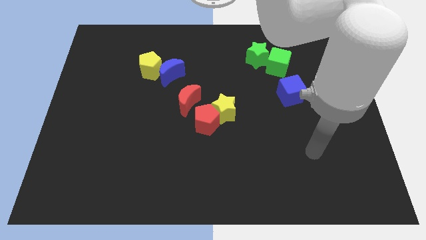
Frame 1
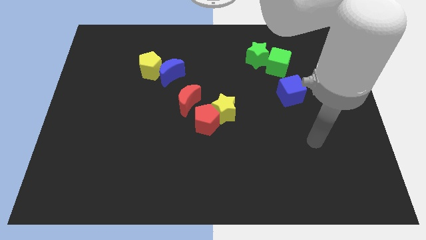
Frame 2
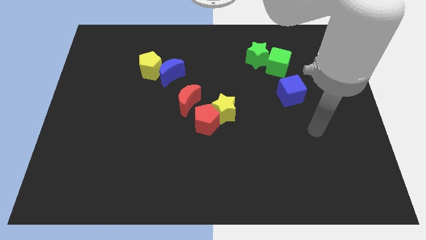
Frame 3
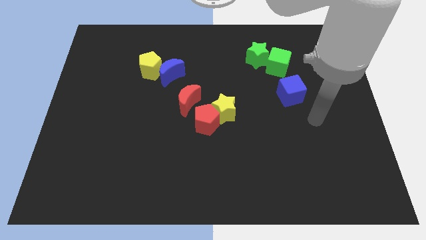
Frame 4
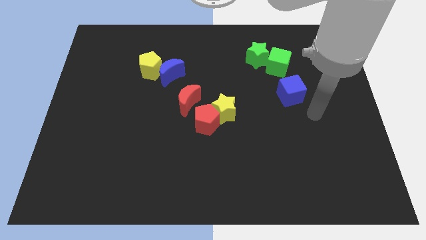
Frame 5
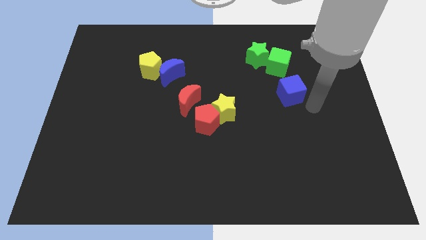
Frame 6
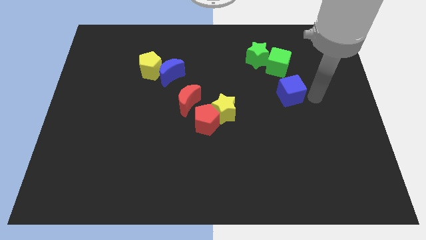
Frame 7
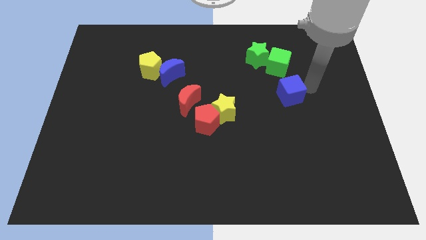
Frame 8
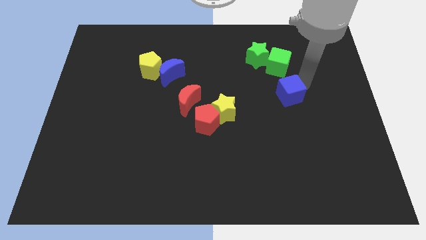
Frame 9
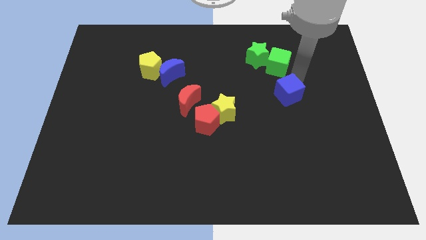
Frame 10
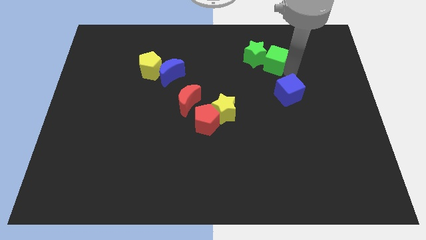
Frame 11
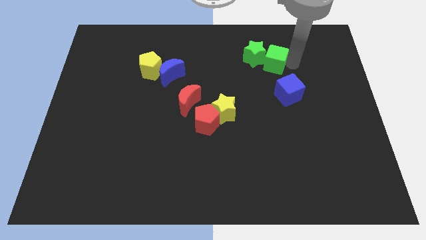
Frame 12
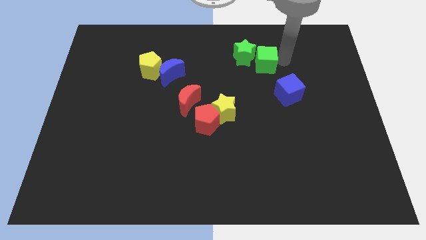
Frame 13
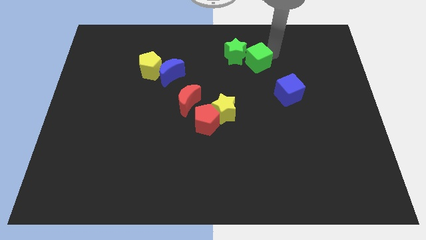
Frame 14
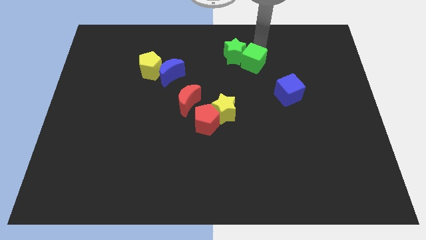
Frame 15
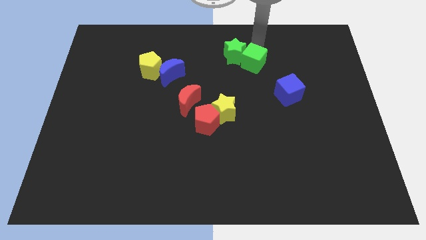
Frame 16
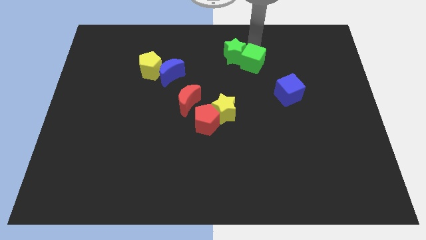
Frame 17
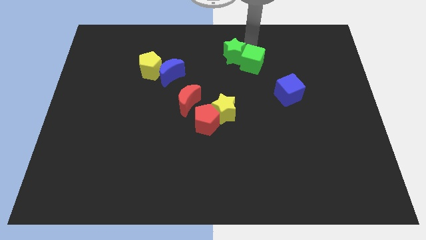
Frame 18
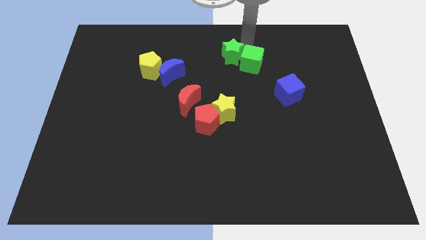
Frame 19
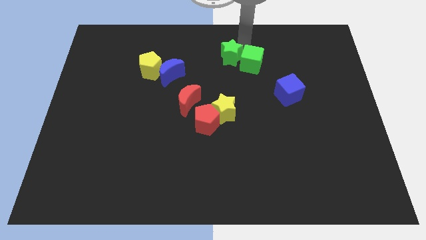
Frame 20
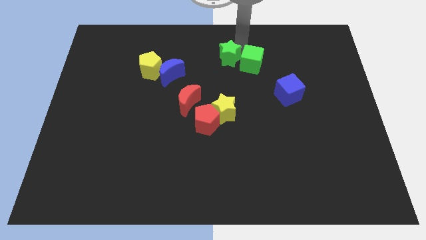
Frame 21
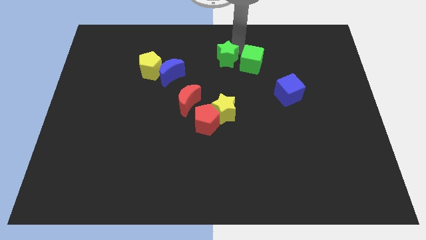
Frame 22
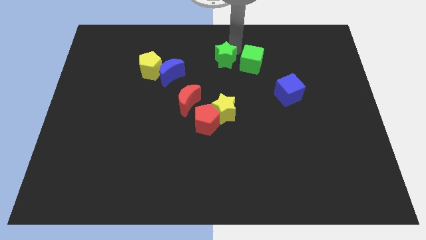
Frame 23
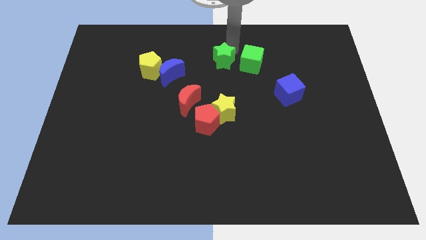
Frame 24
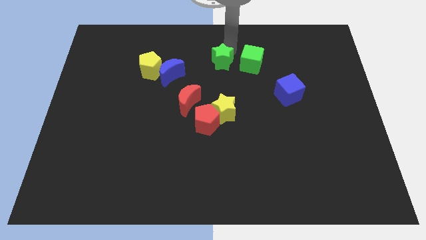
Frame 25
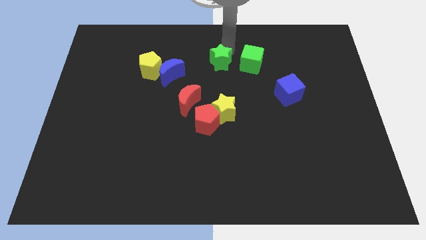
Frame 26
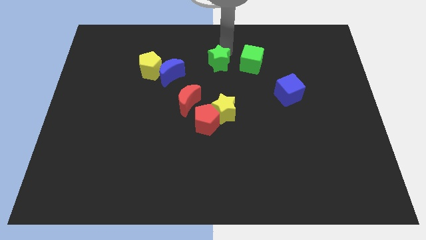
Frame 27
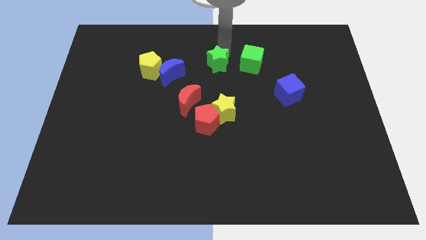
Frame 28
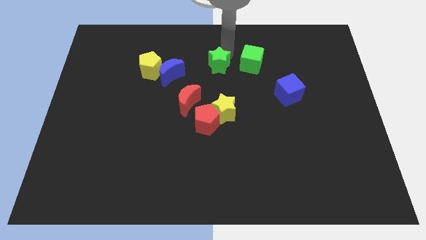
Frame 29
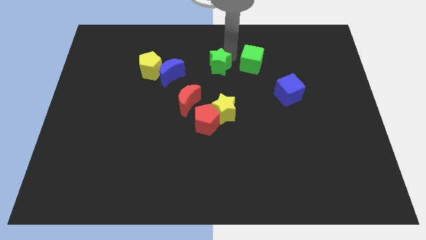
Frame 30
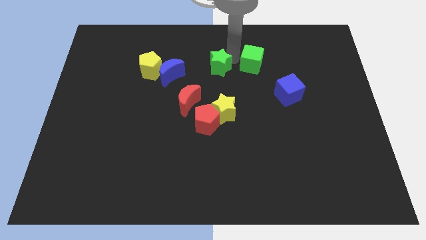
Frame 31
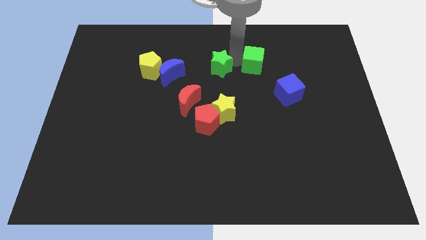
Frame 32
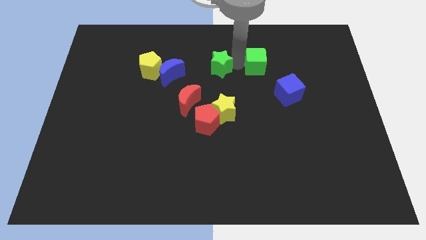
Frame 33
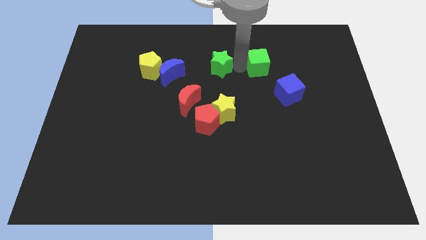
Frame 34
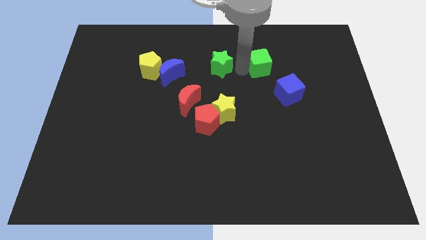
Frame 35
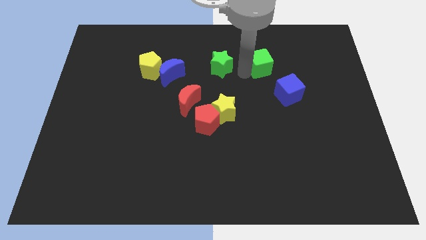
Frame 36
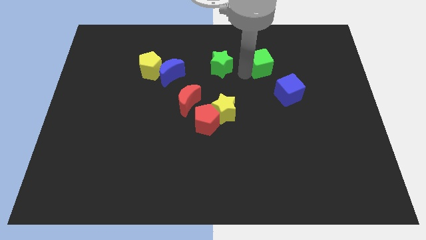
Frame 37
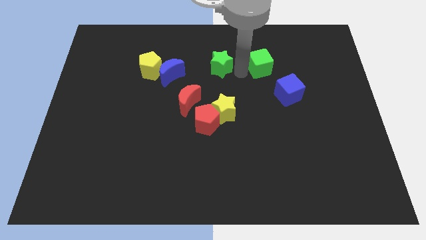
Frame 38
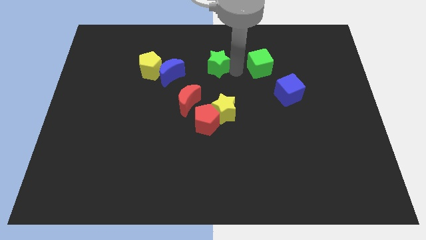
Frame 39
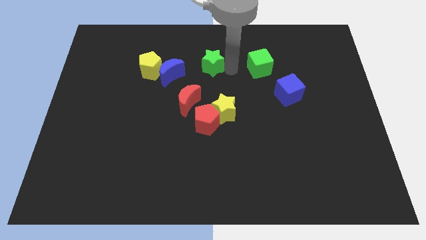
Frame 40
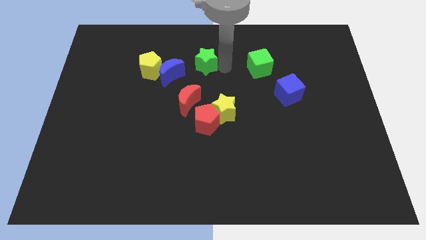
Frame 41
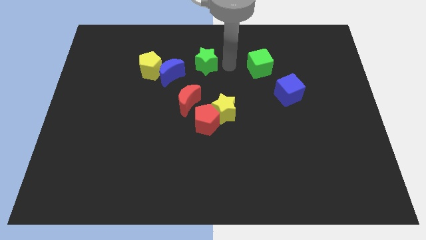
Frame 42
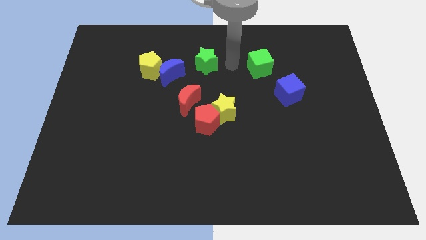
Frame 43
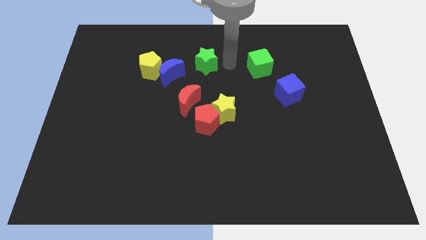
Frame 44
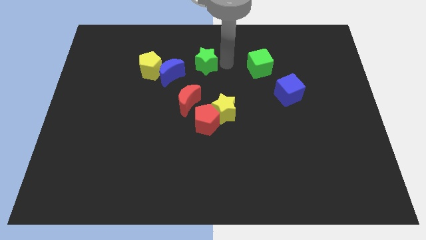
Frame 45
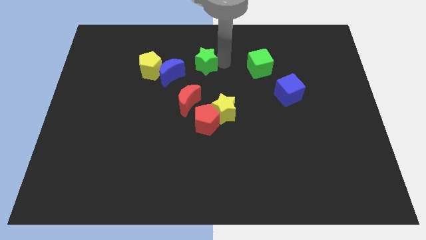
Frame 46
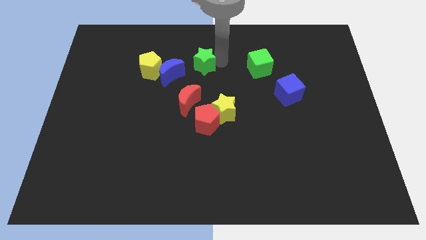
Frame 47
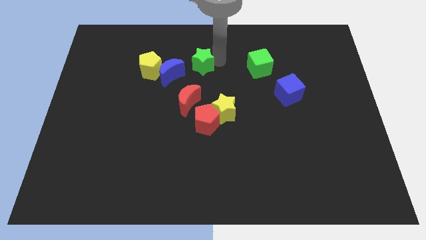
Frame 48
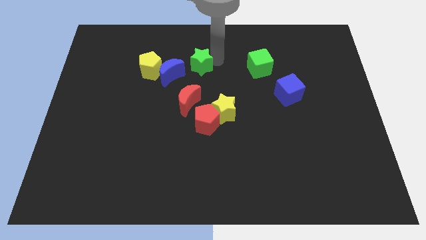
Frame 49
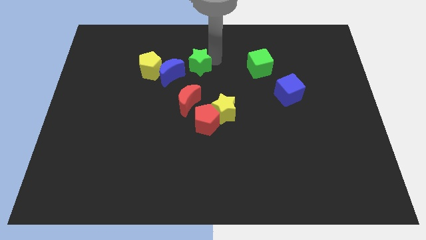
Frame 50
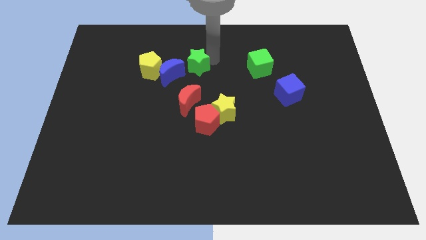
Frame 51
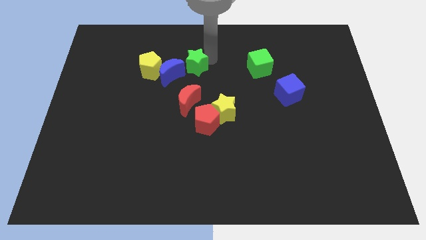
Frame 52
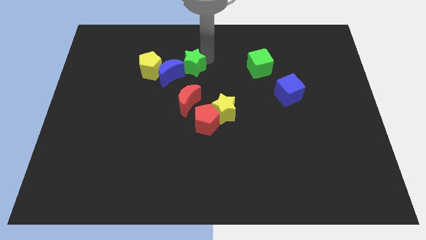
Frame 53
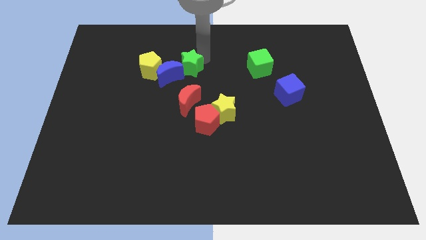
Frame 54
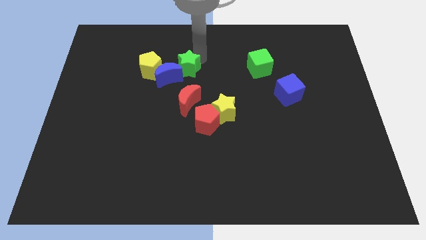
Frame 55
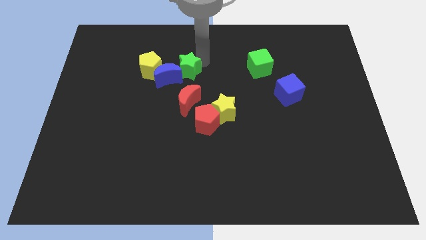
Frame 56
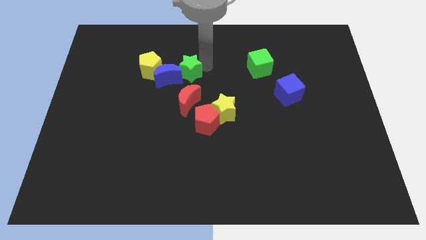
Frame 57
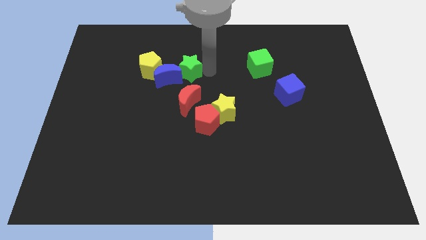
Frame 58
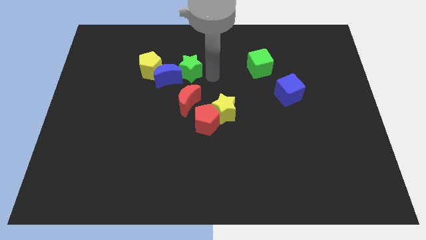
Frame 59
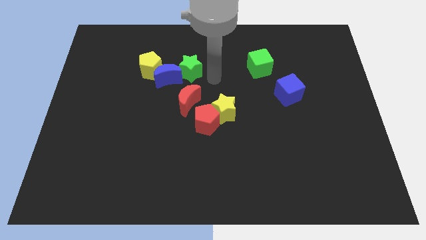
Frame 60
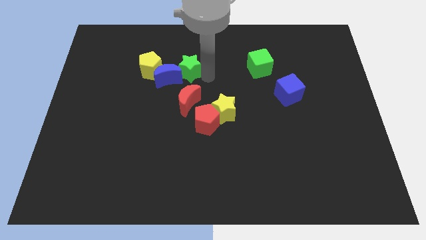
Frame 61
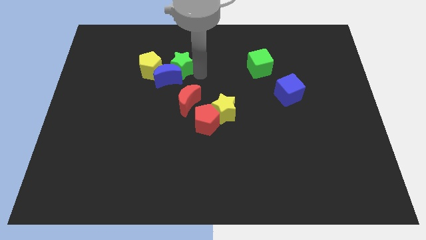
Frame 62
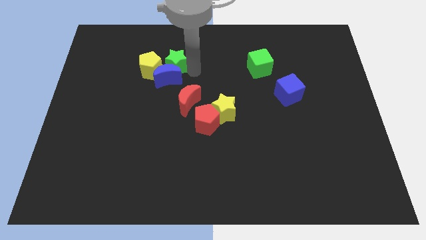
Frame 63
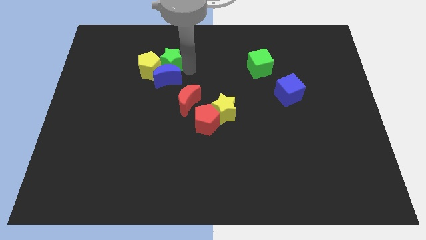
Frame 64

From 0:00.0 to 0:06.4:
move the green star to the yellow pentagon

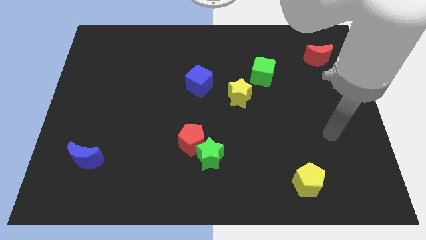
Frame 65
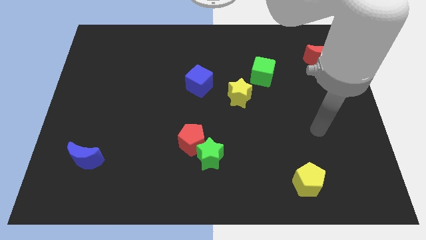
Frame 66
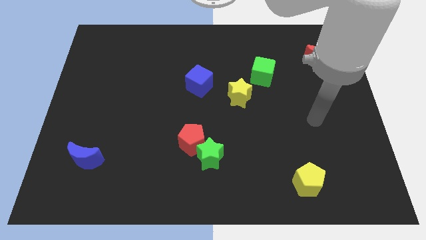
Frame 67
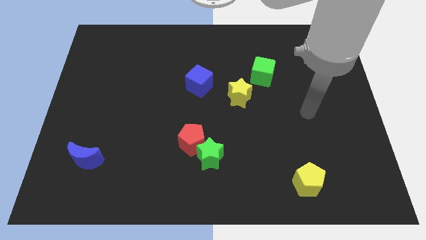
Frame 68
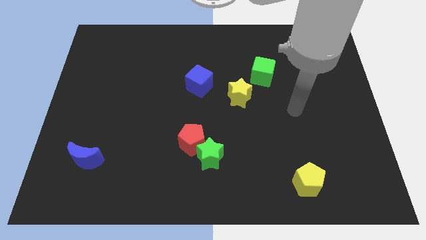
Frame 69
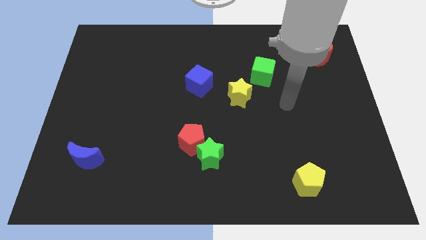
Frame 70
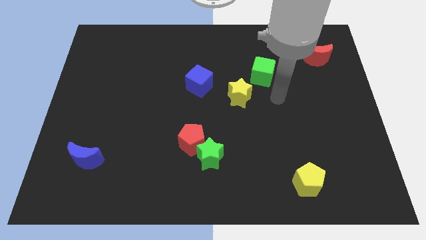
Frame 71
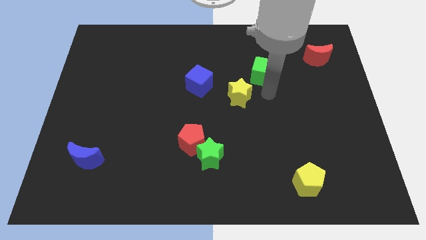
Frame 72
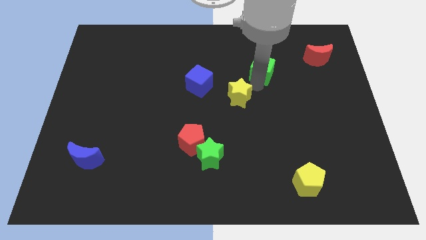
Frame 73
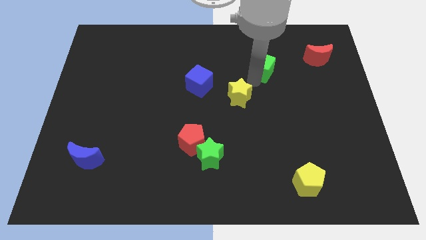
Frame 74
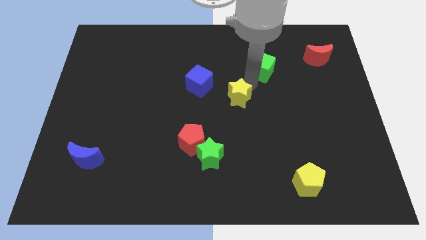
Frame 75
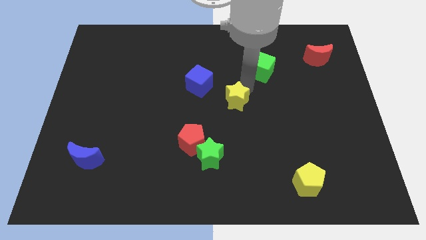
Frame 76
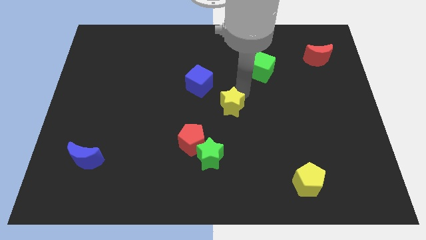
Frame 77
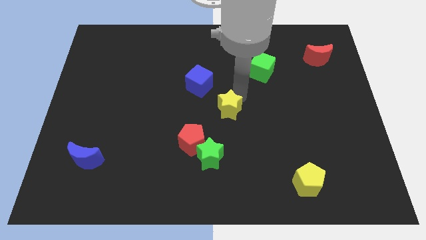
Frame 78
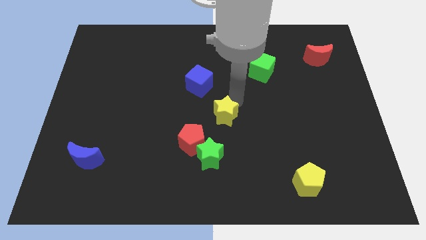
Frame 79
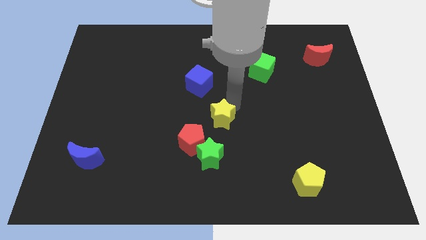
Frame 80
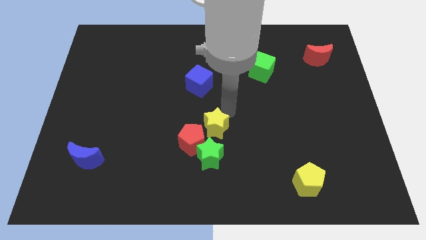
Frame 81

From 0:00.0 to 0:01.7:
slide the yellow star to the red pentagon

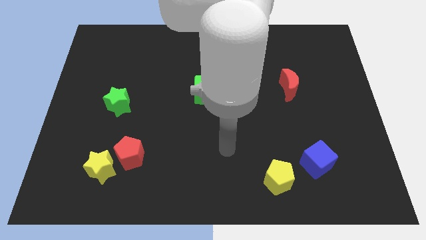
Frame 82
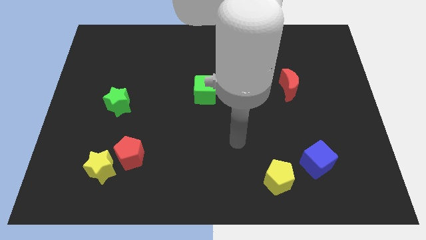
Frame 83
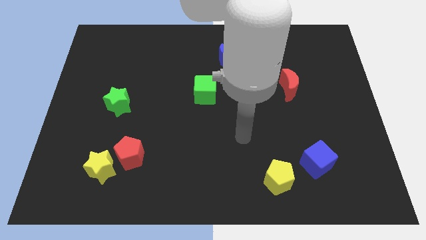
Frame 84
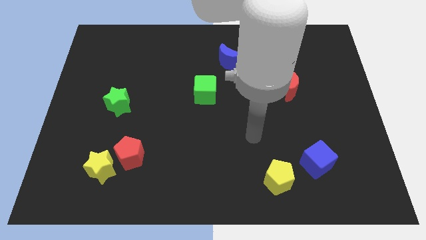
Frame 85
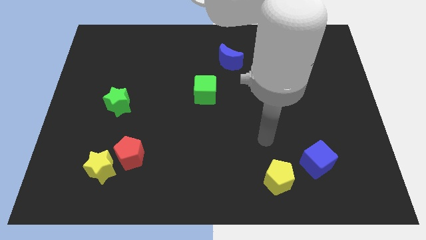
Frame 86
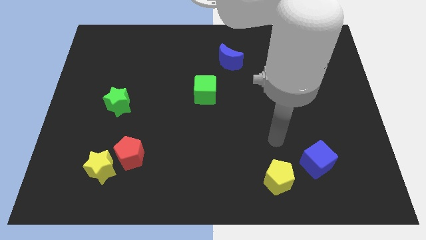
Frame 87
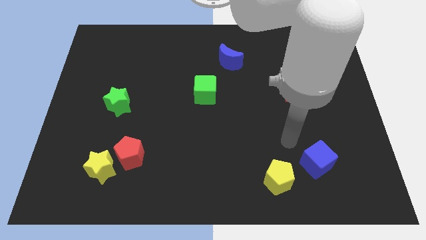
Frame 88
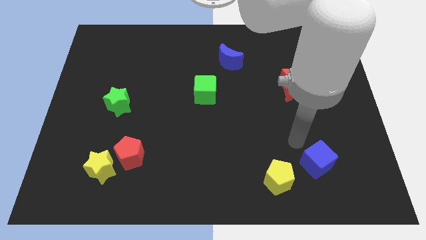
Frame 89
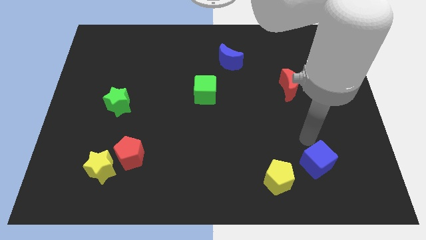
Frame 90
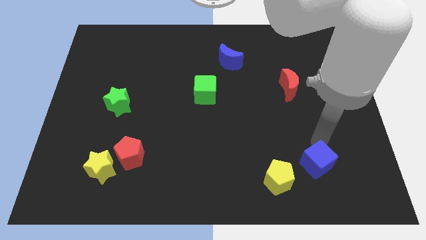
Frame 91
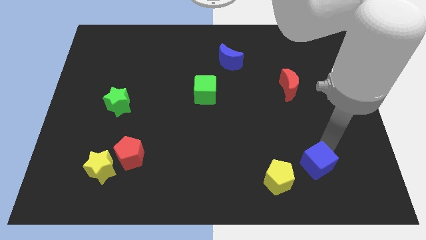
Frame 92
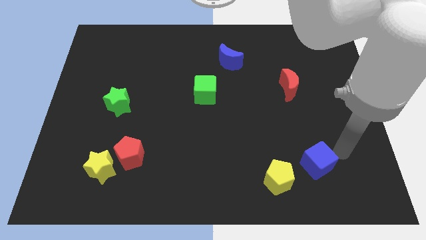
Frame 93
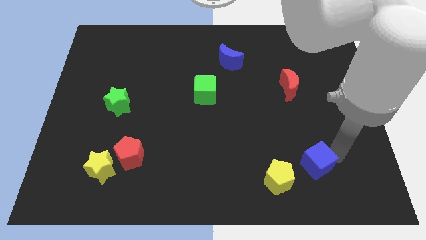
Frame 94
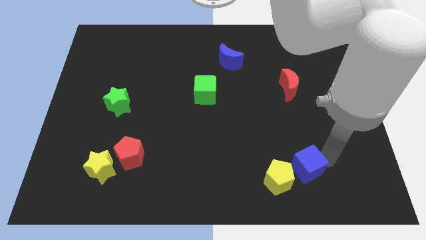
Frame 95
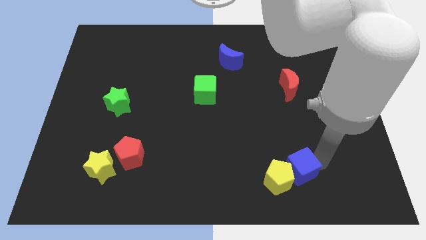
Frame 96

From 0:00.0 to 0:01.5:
put the blue cube next to the yellow pentagon
